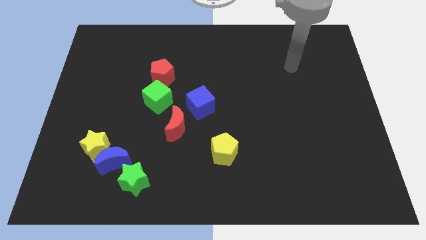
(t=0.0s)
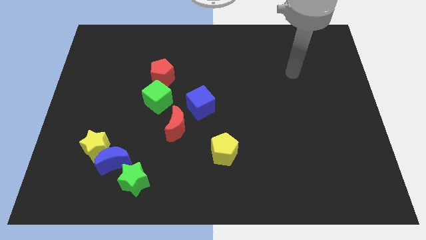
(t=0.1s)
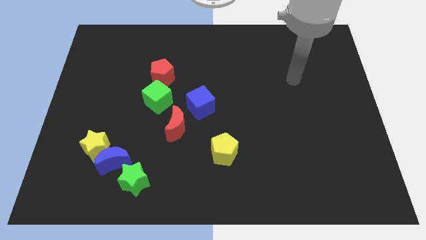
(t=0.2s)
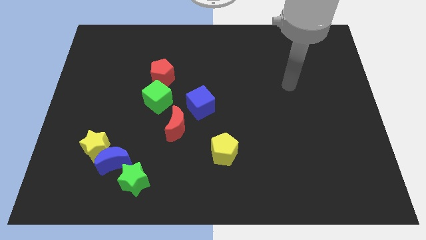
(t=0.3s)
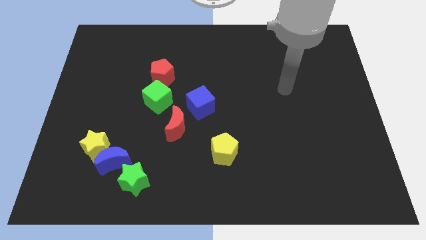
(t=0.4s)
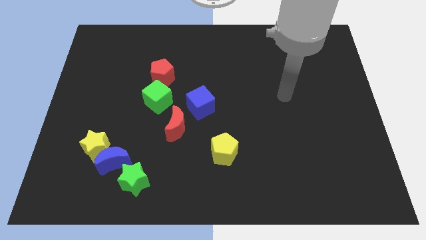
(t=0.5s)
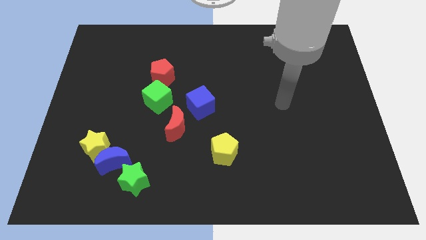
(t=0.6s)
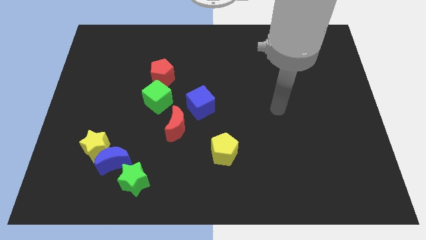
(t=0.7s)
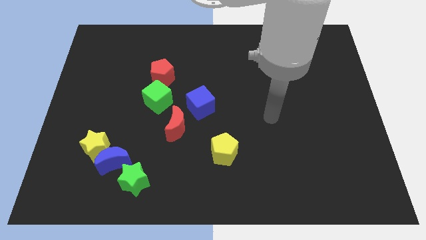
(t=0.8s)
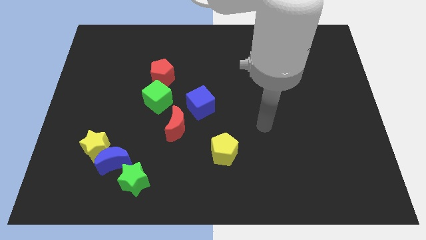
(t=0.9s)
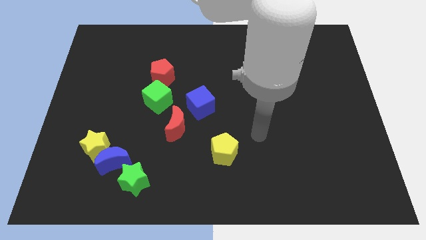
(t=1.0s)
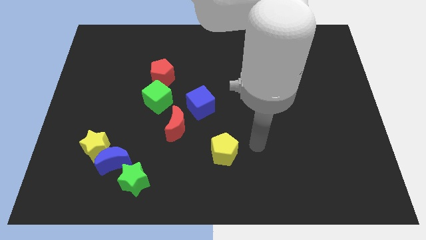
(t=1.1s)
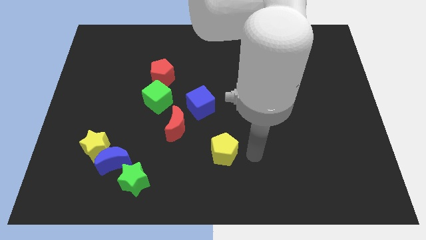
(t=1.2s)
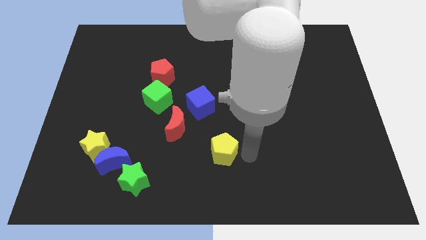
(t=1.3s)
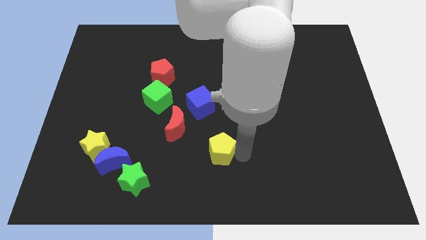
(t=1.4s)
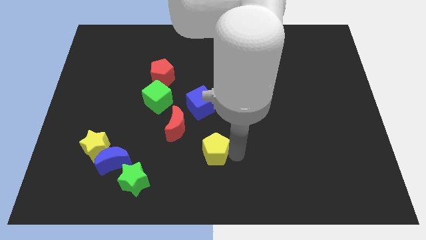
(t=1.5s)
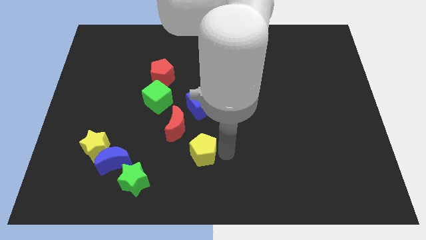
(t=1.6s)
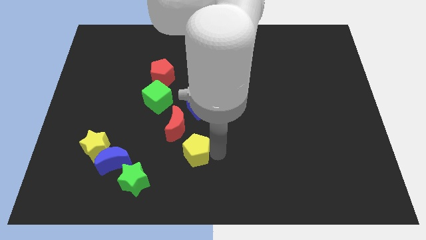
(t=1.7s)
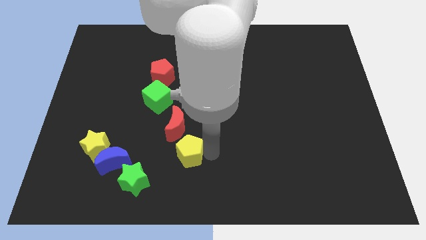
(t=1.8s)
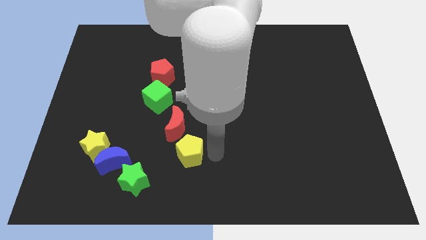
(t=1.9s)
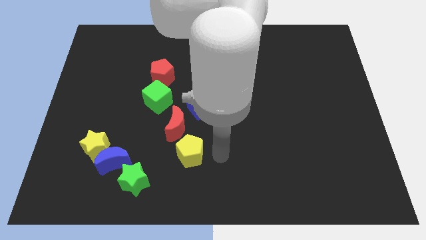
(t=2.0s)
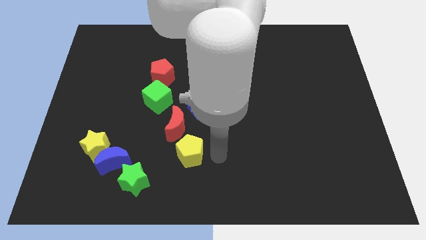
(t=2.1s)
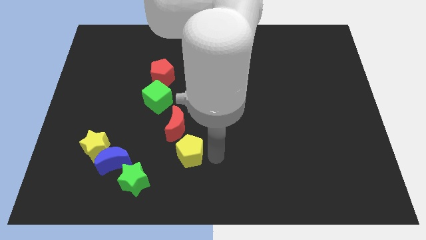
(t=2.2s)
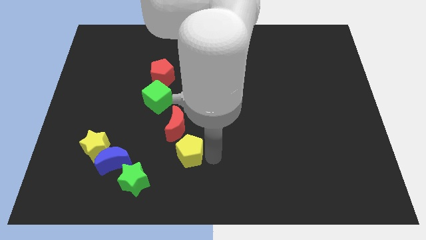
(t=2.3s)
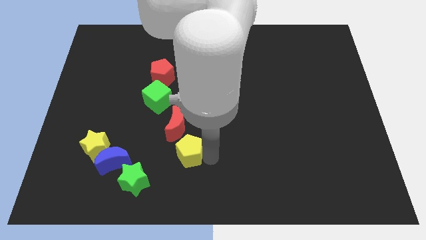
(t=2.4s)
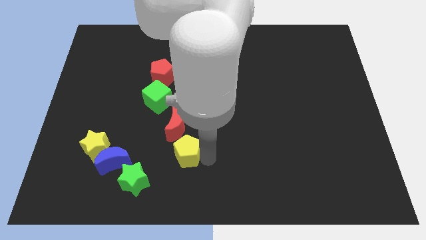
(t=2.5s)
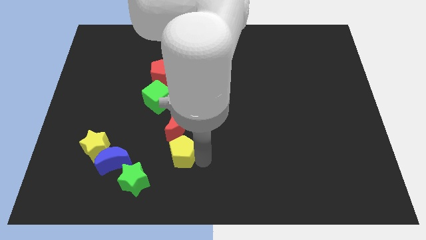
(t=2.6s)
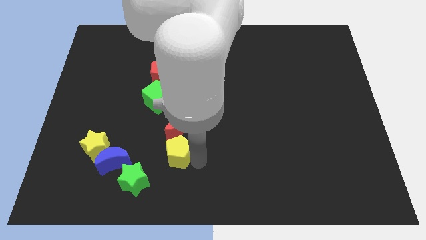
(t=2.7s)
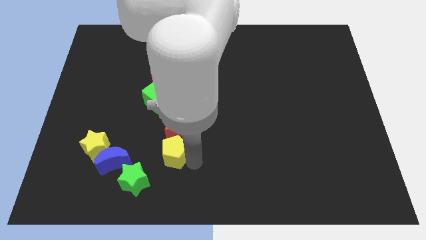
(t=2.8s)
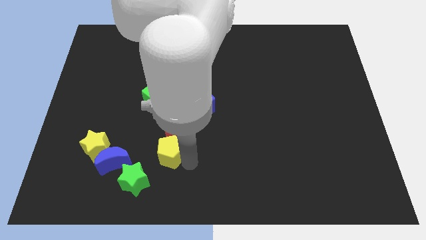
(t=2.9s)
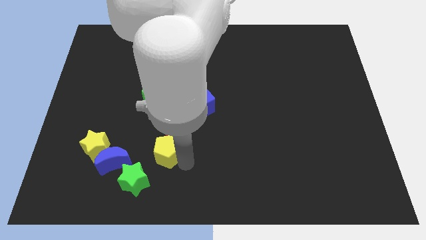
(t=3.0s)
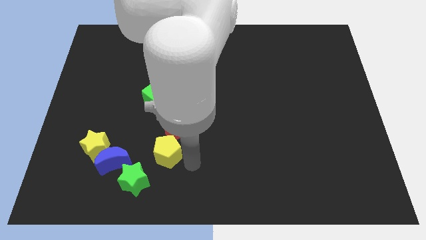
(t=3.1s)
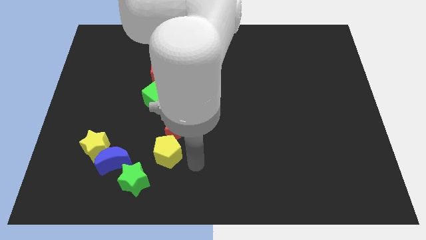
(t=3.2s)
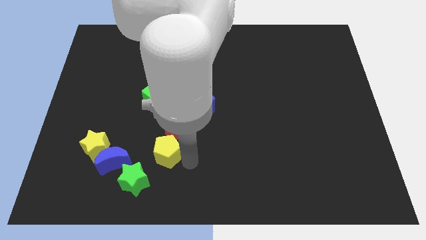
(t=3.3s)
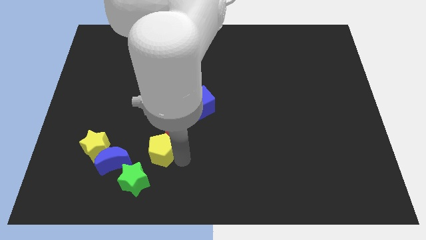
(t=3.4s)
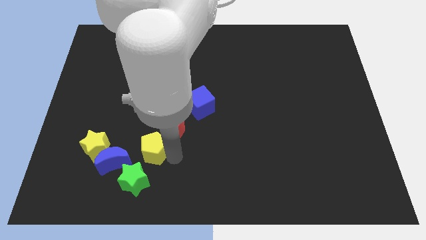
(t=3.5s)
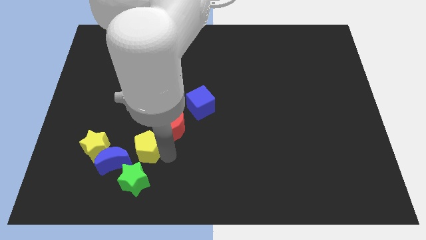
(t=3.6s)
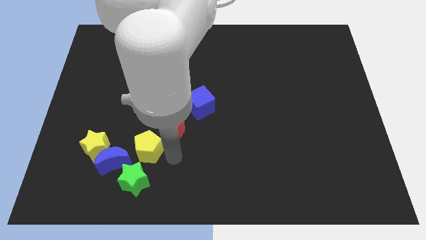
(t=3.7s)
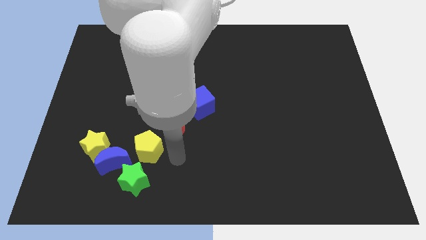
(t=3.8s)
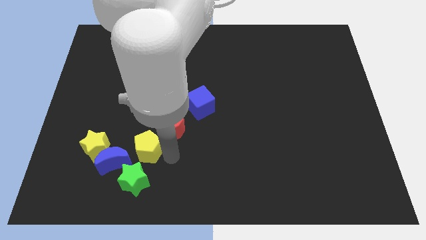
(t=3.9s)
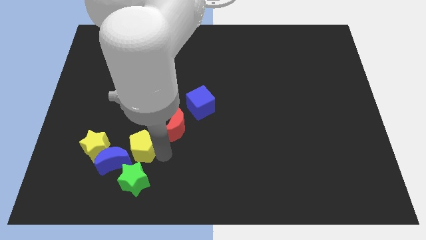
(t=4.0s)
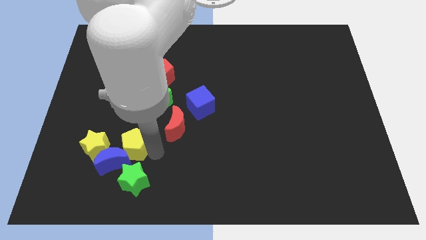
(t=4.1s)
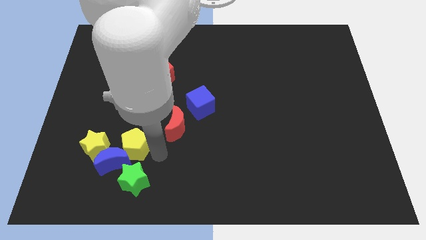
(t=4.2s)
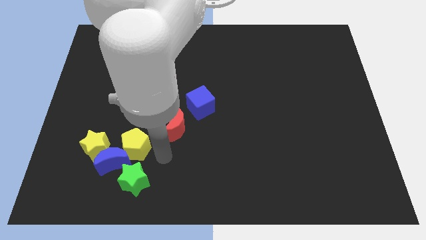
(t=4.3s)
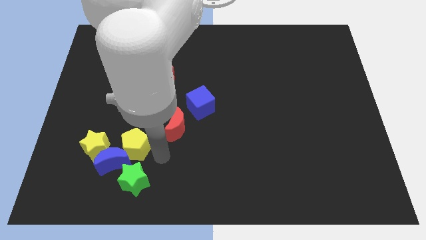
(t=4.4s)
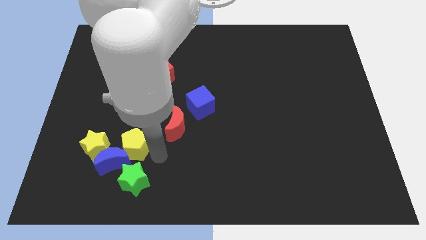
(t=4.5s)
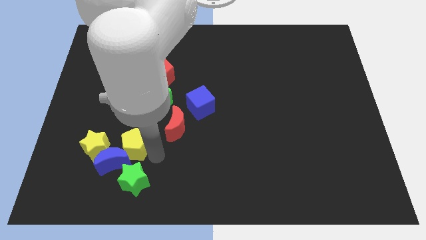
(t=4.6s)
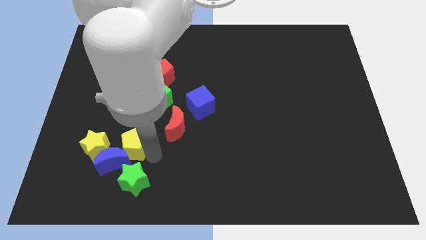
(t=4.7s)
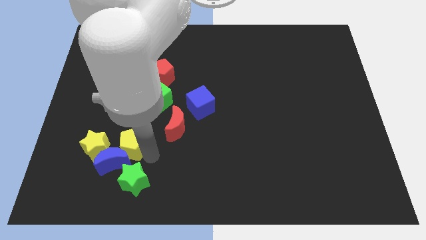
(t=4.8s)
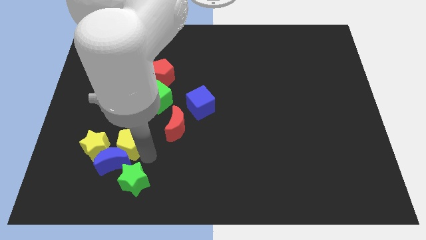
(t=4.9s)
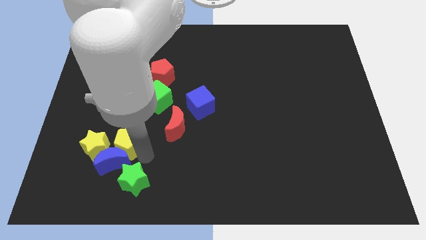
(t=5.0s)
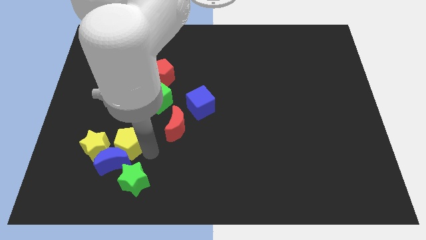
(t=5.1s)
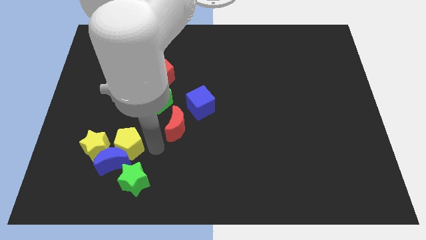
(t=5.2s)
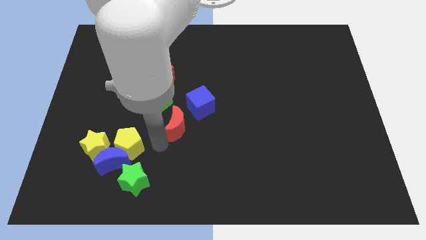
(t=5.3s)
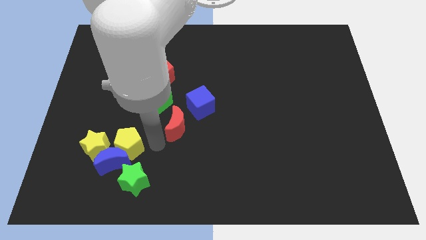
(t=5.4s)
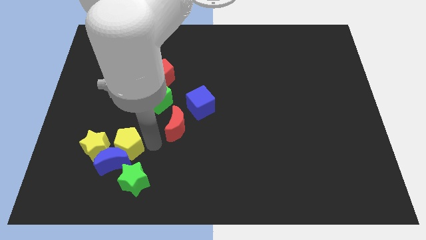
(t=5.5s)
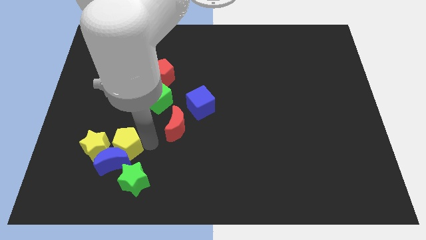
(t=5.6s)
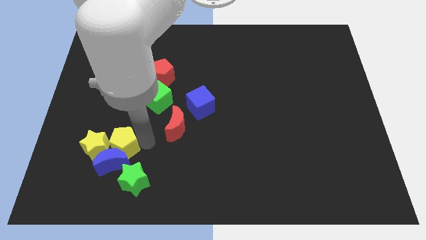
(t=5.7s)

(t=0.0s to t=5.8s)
put the yellow pentagon next to the yellow star

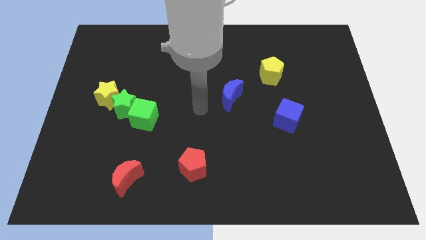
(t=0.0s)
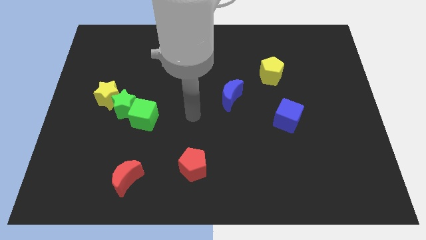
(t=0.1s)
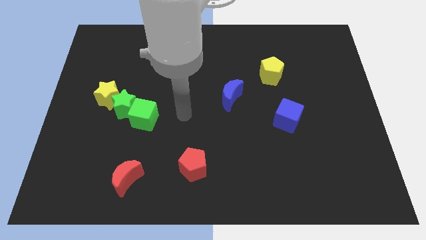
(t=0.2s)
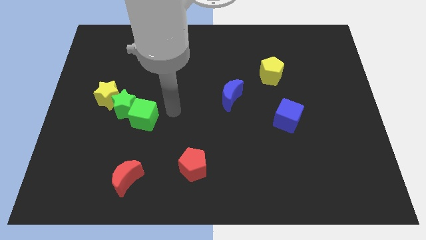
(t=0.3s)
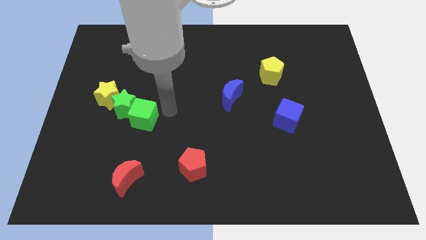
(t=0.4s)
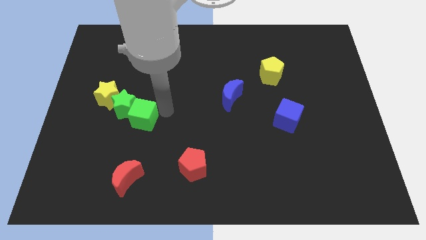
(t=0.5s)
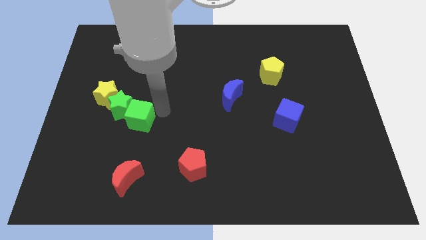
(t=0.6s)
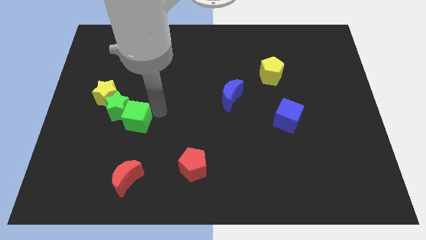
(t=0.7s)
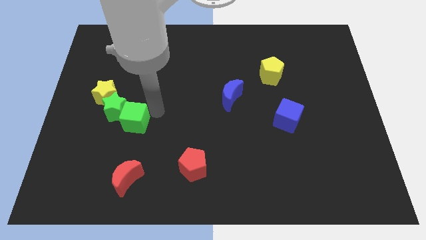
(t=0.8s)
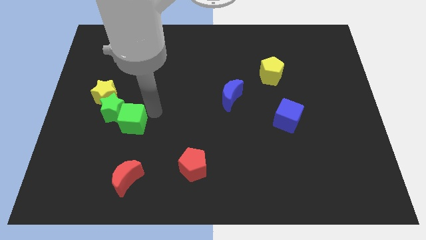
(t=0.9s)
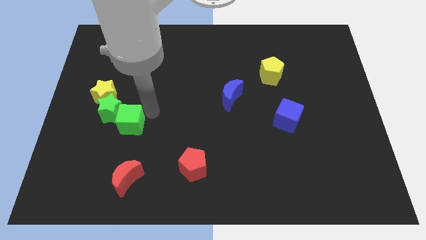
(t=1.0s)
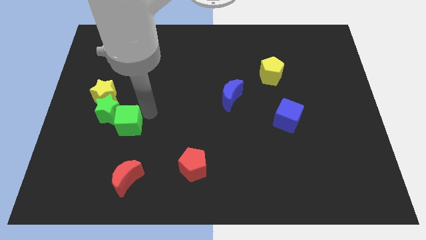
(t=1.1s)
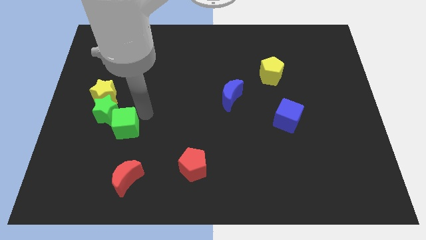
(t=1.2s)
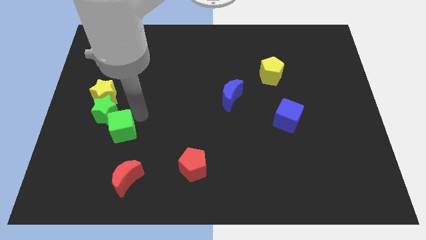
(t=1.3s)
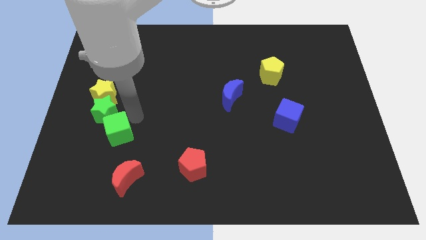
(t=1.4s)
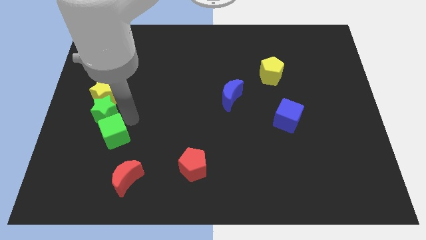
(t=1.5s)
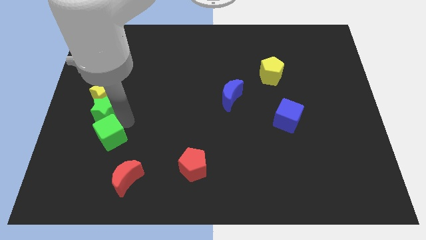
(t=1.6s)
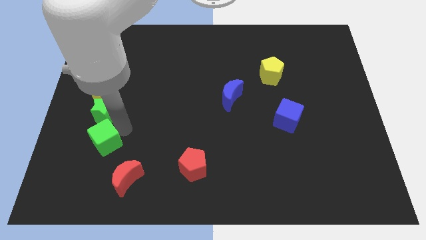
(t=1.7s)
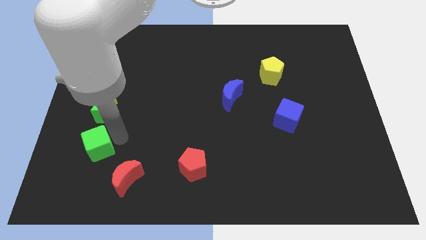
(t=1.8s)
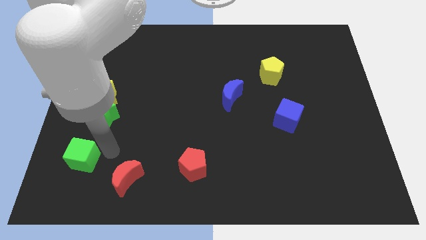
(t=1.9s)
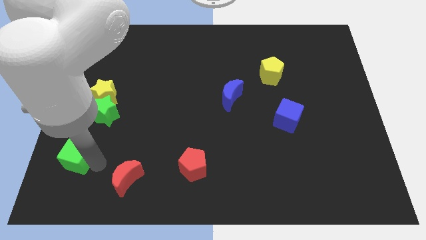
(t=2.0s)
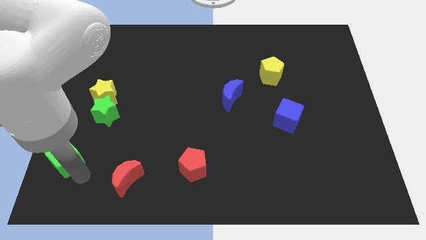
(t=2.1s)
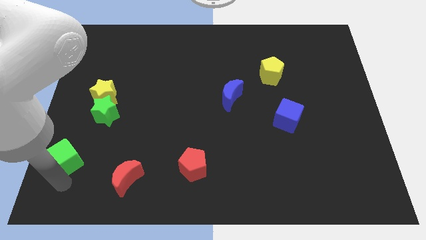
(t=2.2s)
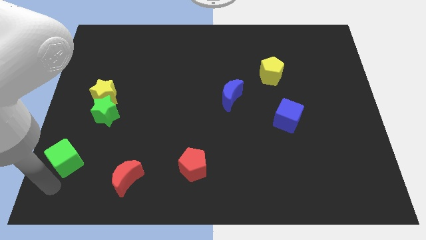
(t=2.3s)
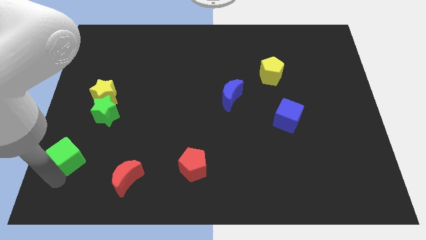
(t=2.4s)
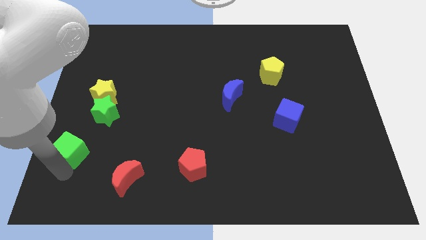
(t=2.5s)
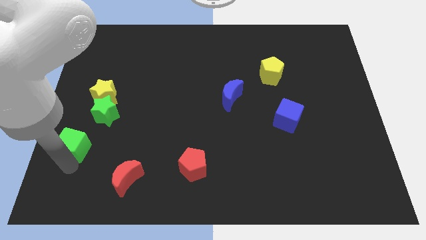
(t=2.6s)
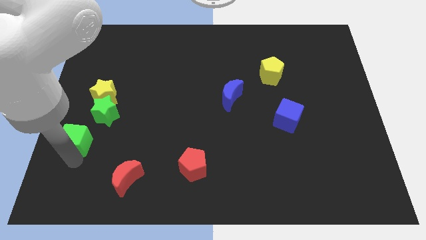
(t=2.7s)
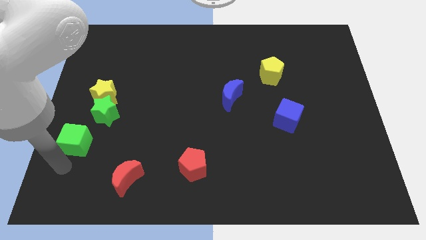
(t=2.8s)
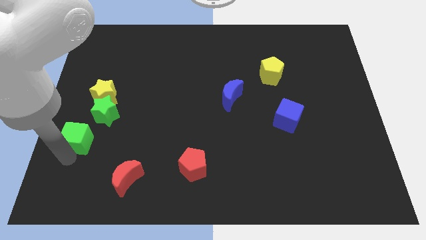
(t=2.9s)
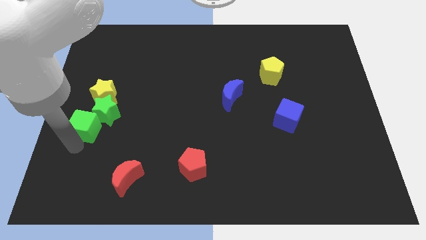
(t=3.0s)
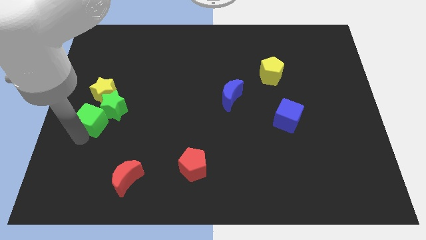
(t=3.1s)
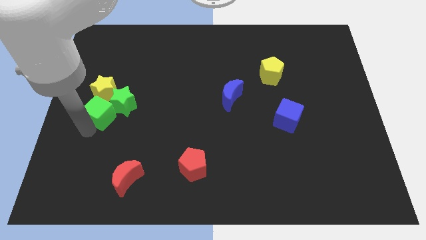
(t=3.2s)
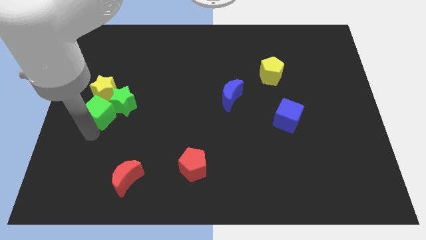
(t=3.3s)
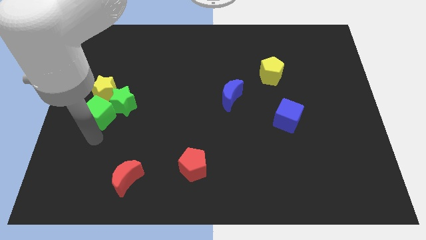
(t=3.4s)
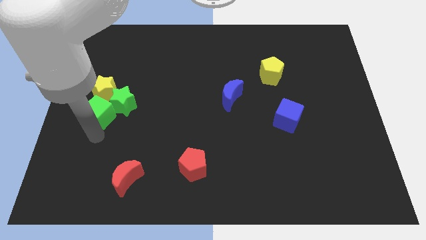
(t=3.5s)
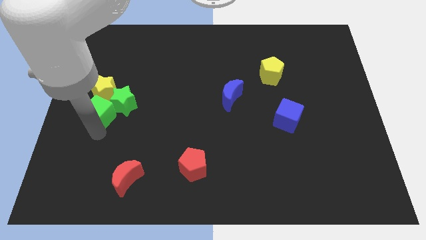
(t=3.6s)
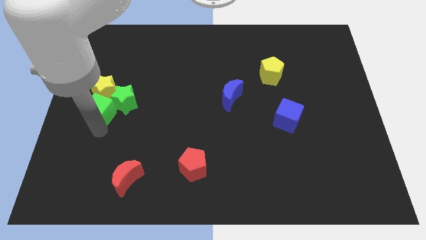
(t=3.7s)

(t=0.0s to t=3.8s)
slide the green cube to the yellow star
